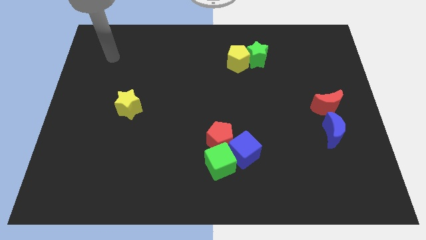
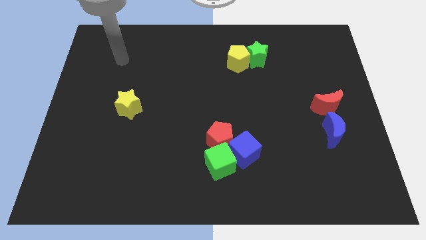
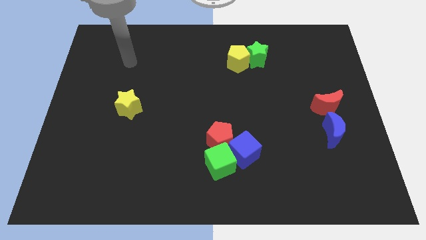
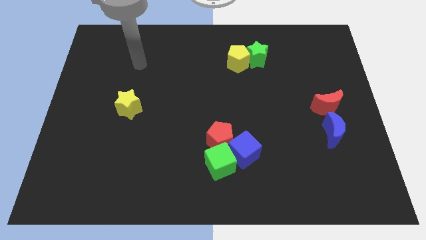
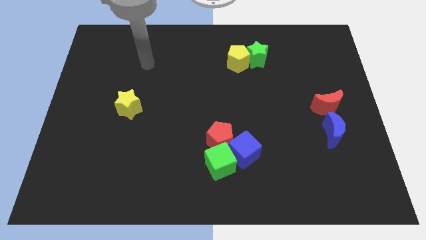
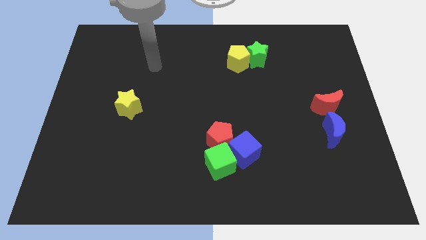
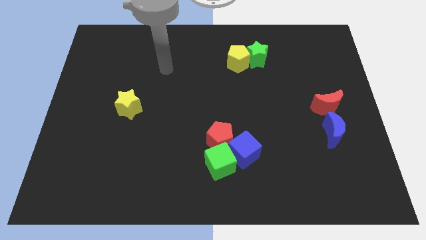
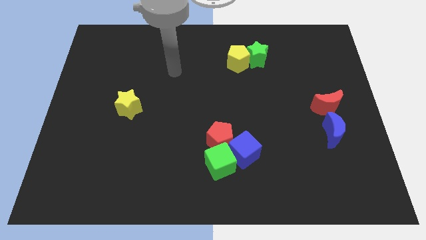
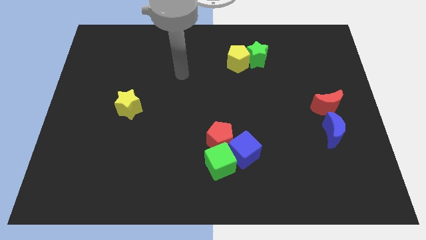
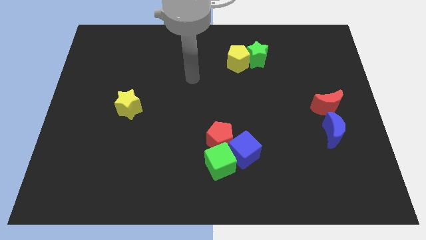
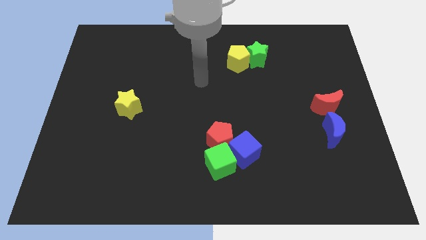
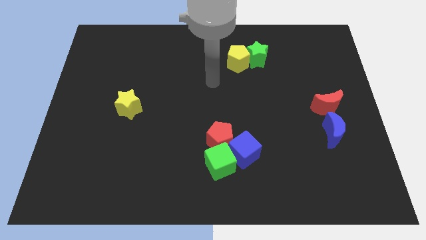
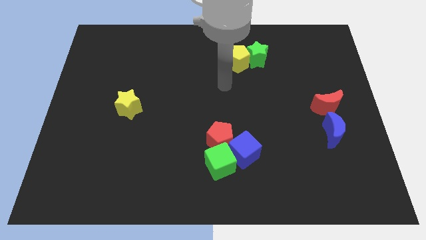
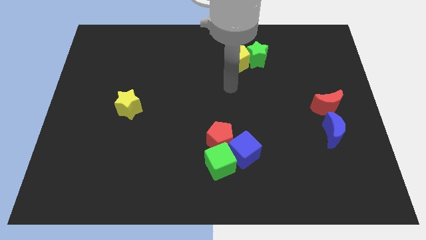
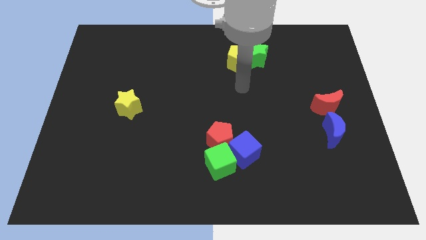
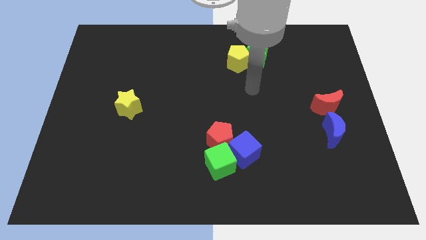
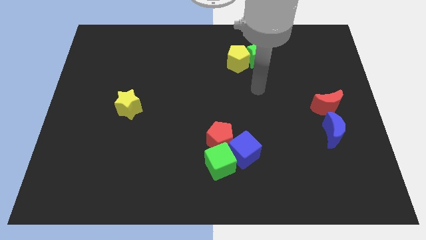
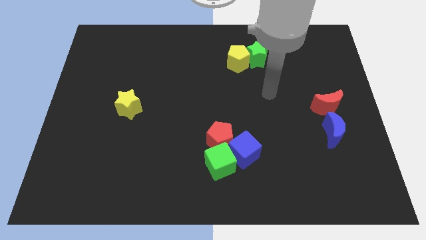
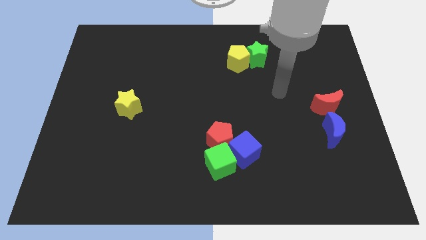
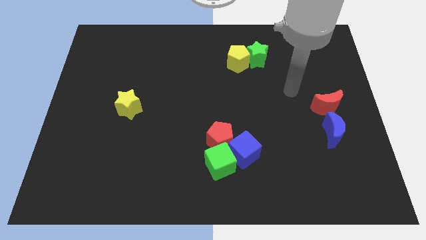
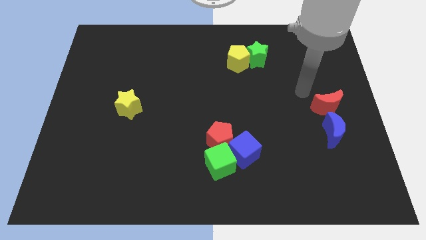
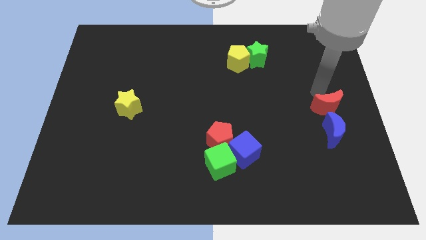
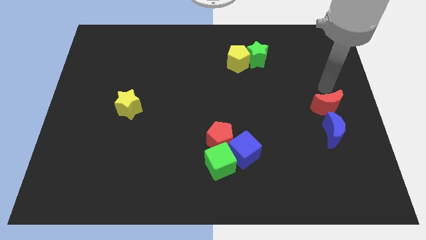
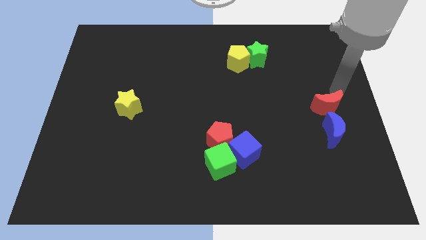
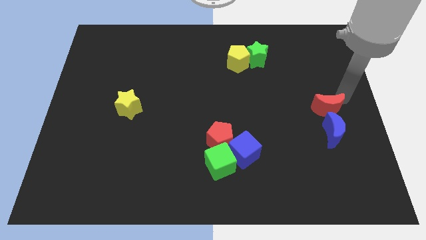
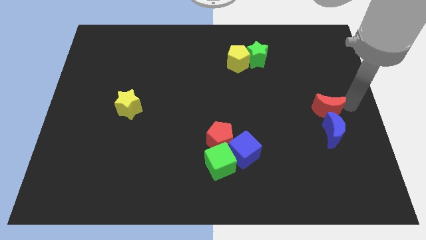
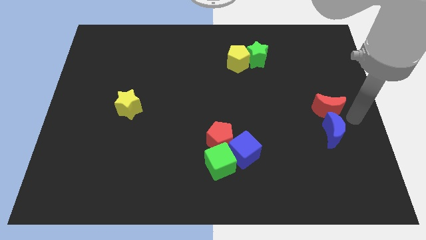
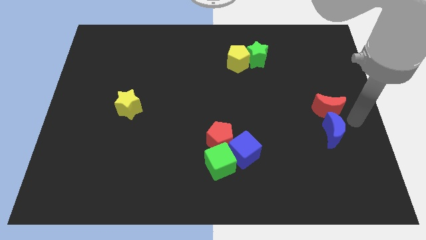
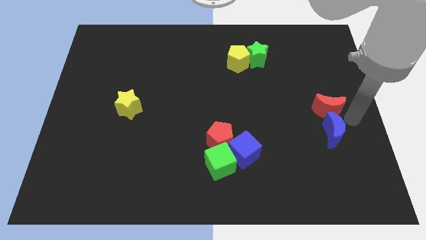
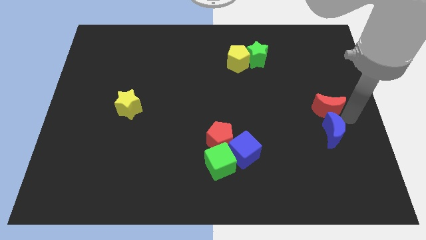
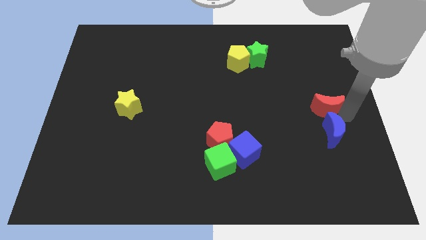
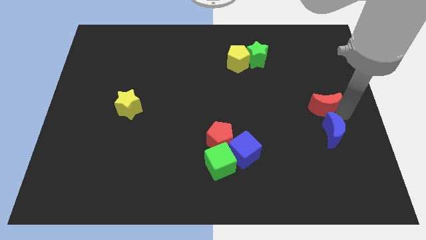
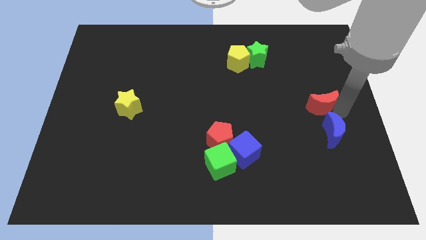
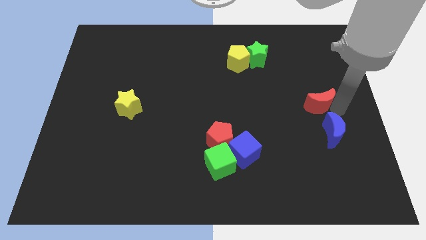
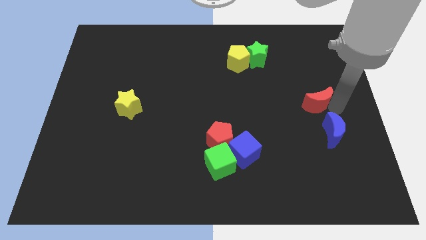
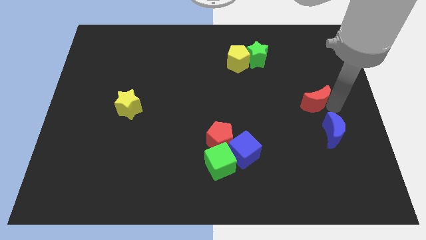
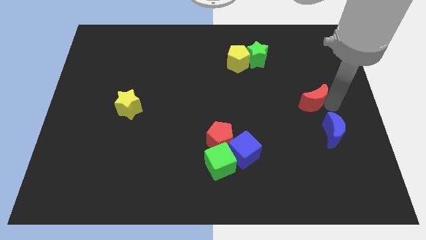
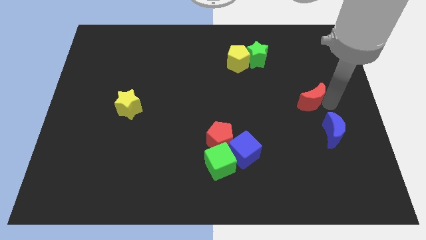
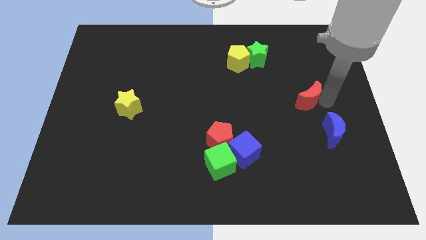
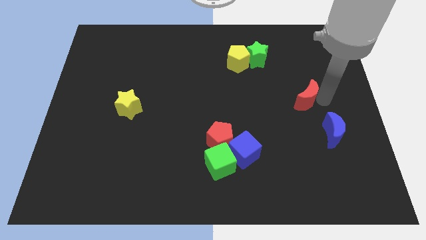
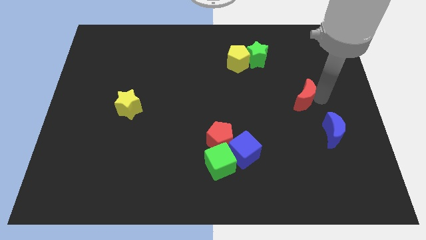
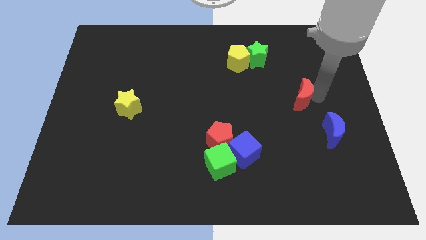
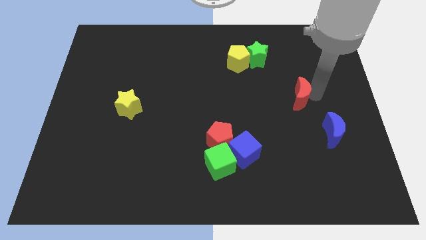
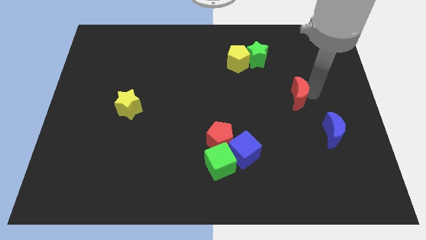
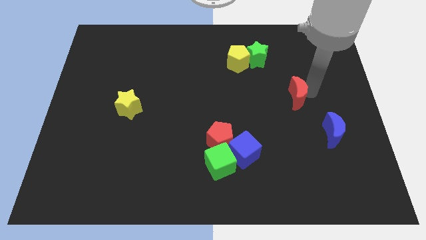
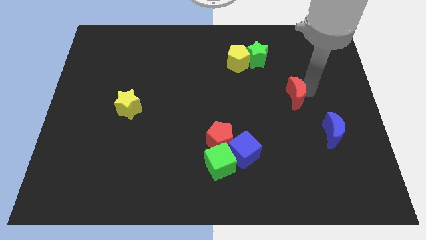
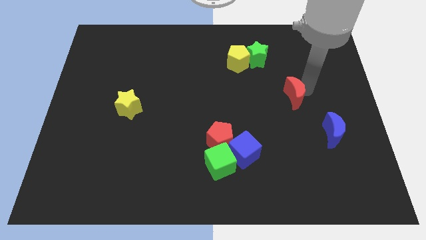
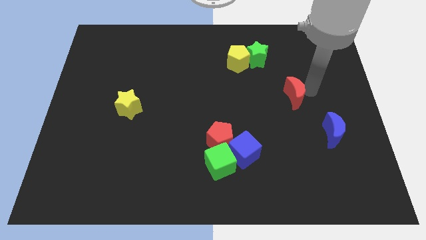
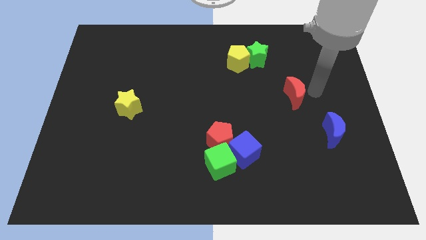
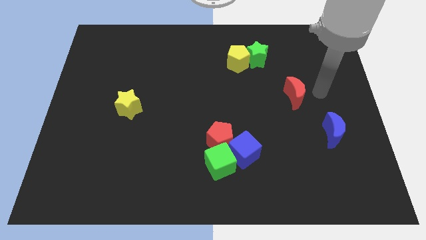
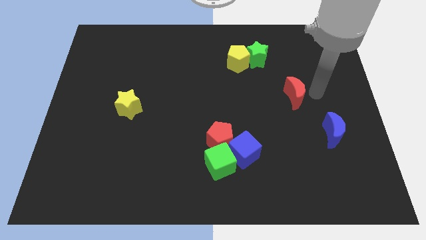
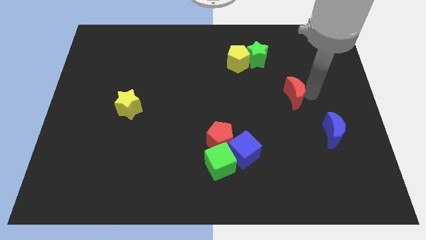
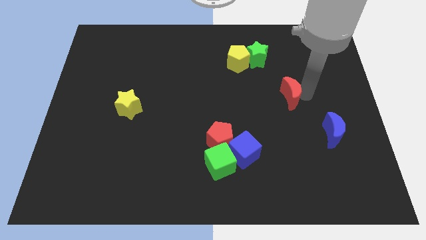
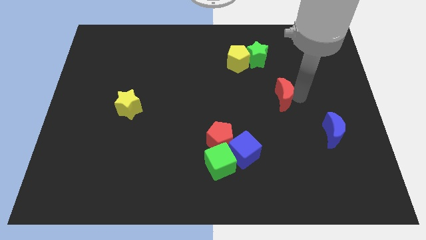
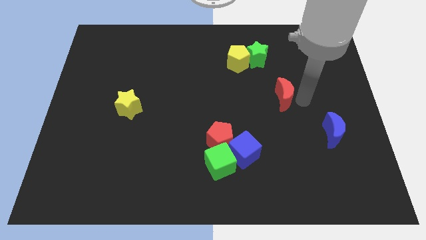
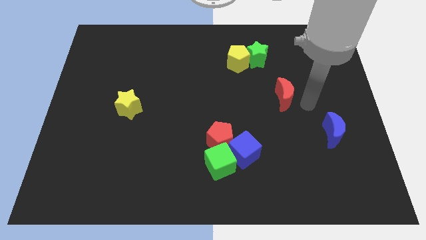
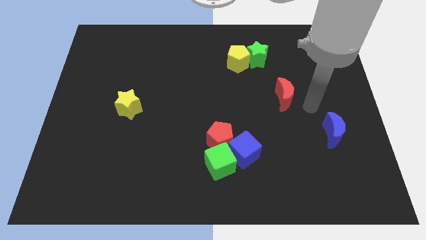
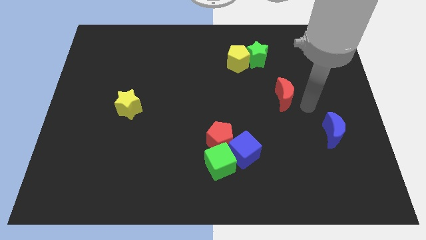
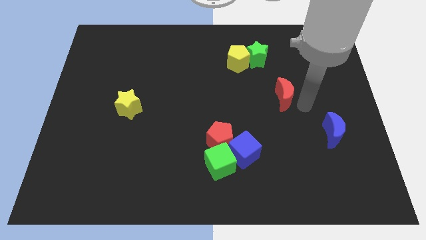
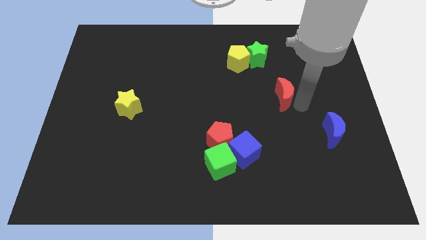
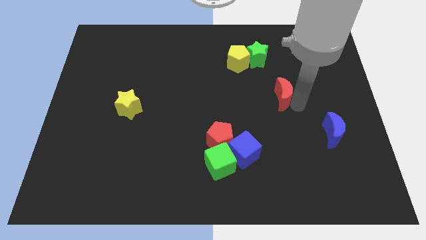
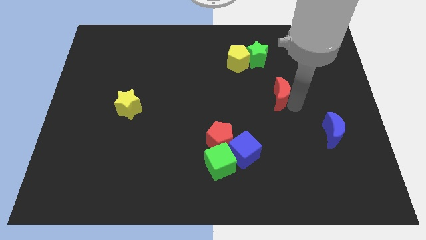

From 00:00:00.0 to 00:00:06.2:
move the red moon below the green star
